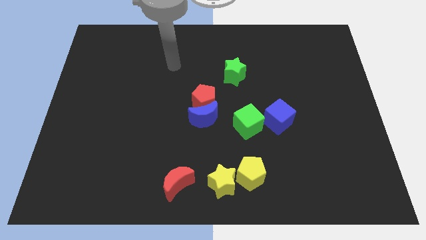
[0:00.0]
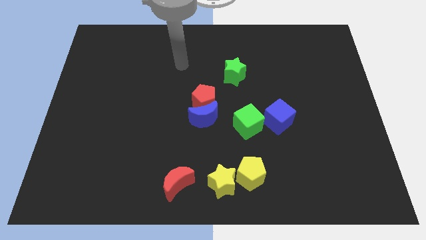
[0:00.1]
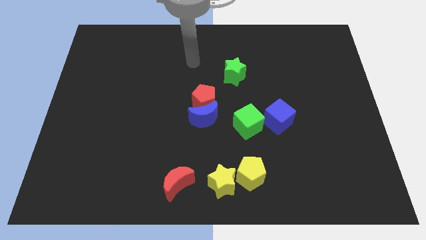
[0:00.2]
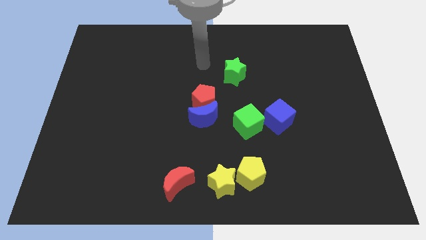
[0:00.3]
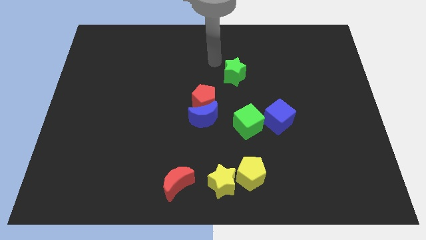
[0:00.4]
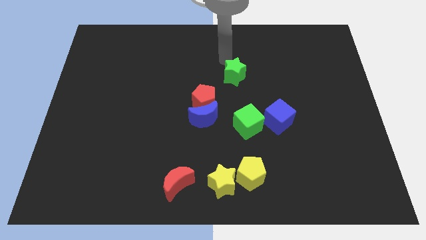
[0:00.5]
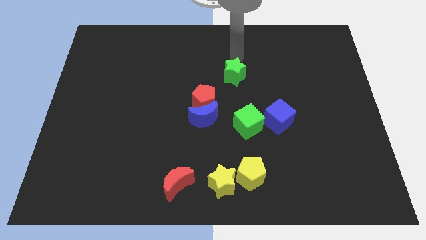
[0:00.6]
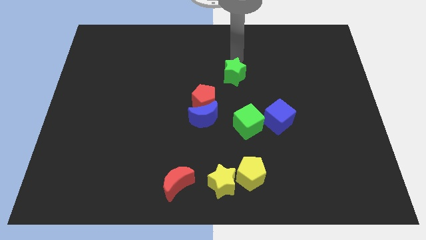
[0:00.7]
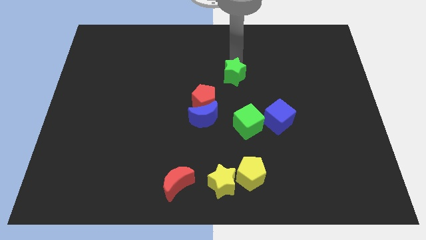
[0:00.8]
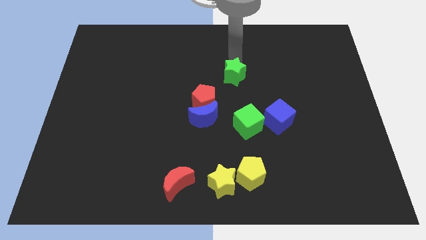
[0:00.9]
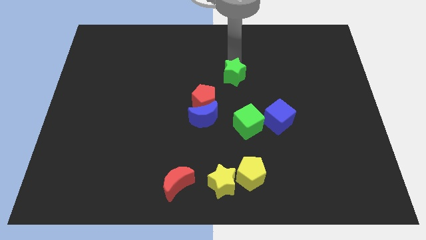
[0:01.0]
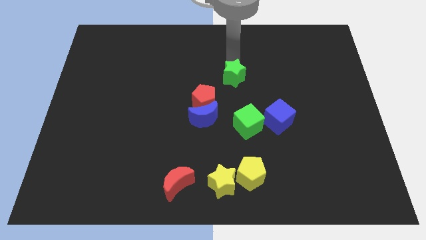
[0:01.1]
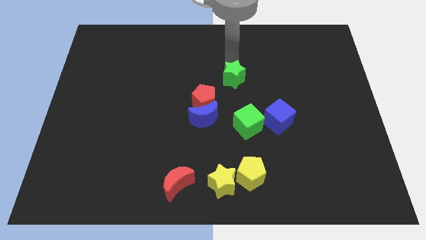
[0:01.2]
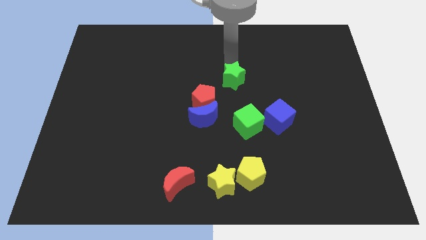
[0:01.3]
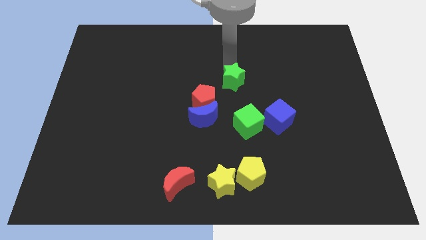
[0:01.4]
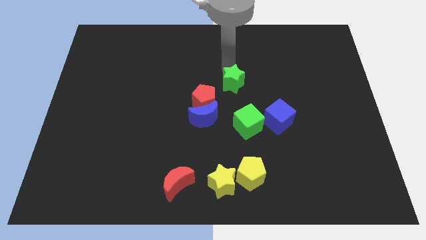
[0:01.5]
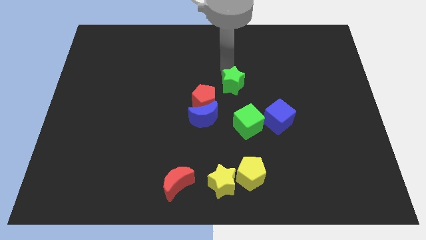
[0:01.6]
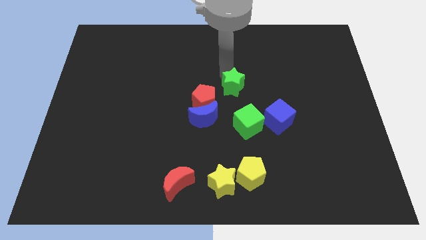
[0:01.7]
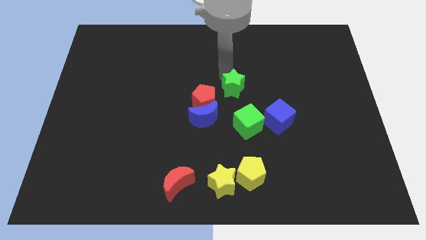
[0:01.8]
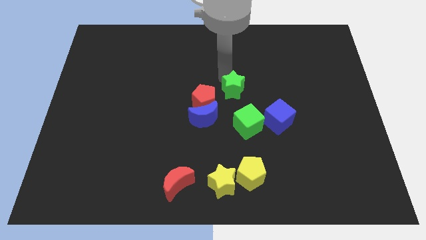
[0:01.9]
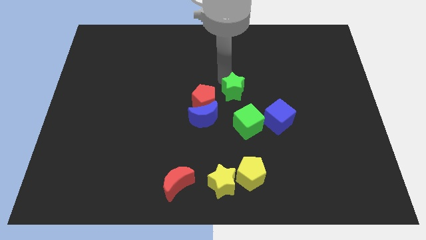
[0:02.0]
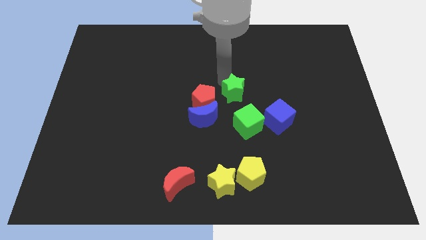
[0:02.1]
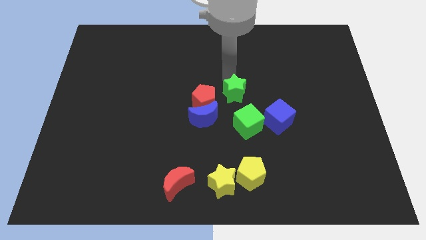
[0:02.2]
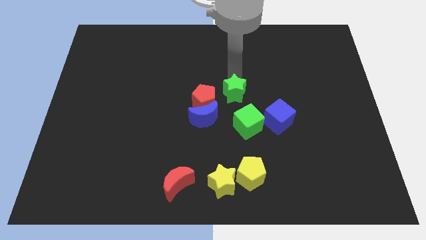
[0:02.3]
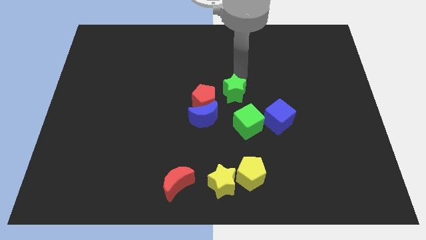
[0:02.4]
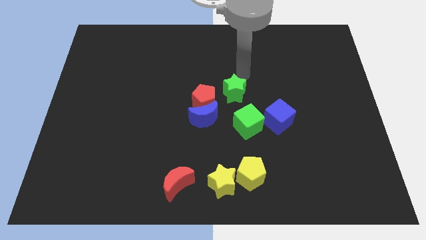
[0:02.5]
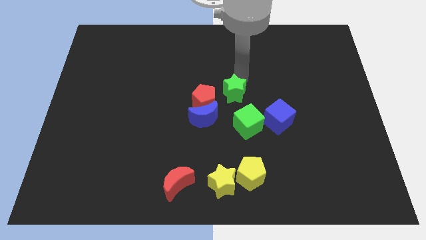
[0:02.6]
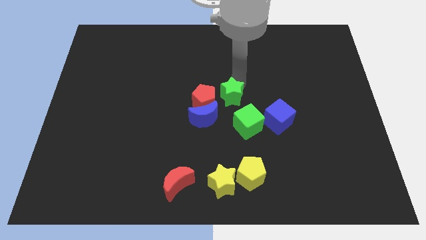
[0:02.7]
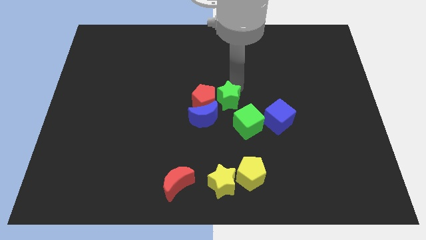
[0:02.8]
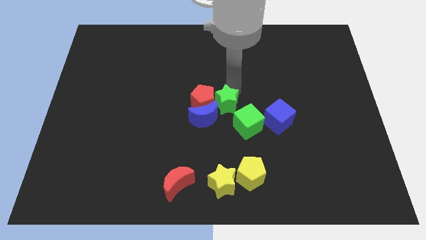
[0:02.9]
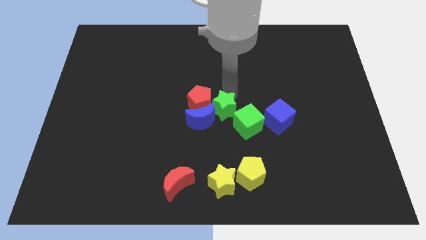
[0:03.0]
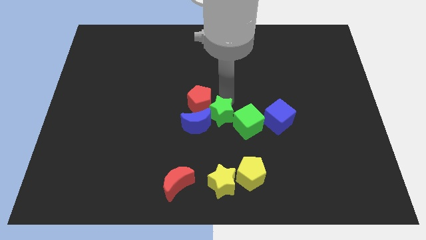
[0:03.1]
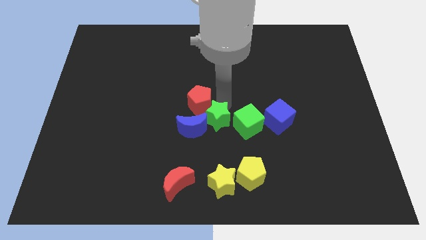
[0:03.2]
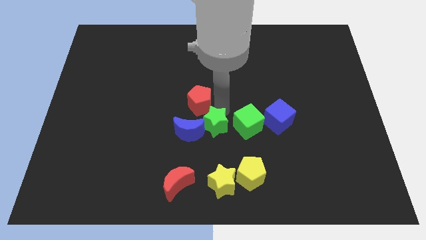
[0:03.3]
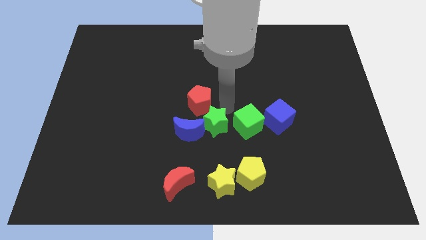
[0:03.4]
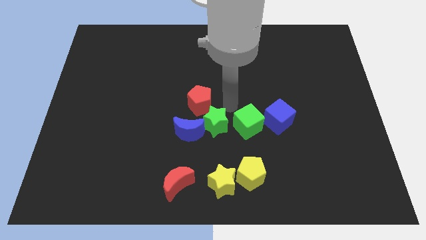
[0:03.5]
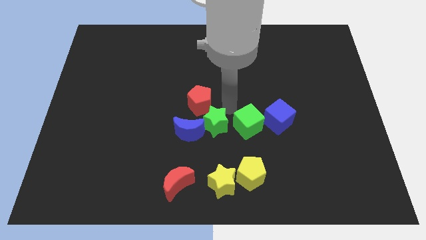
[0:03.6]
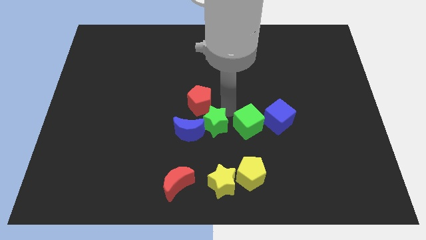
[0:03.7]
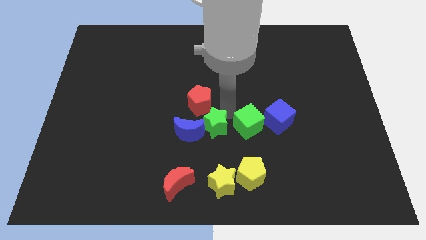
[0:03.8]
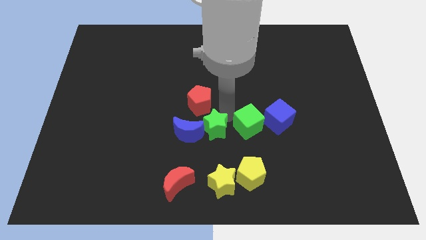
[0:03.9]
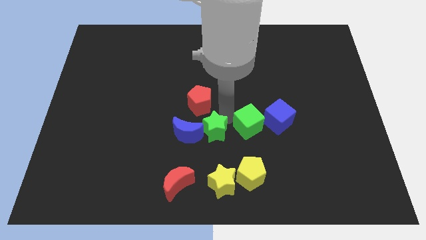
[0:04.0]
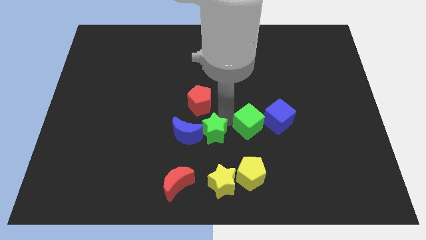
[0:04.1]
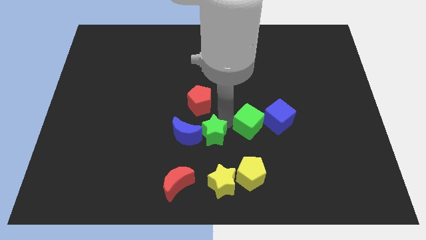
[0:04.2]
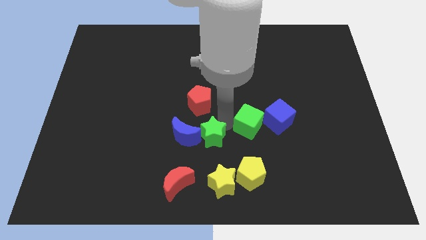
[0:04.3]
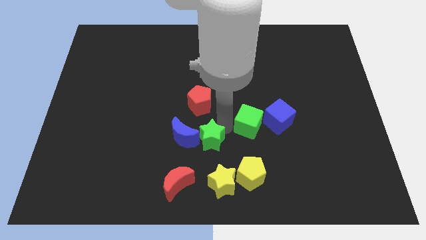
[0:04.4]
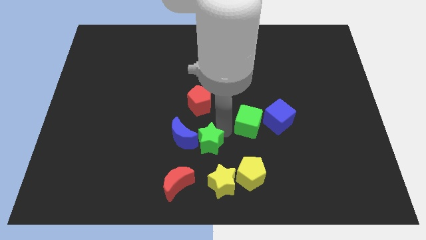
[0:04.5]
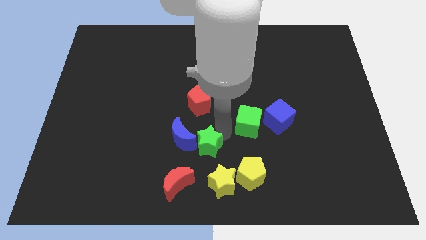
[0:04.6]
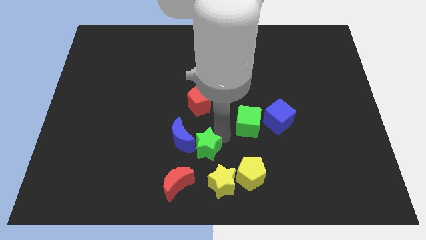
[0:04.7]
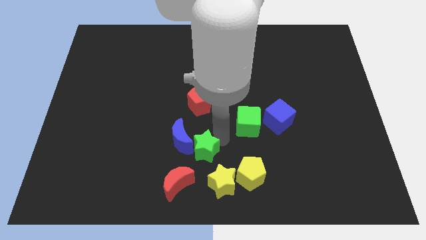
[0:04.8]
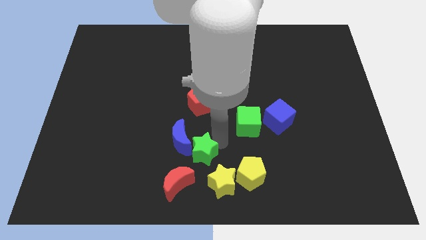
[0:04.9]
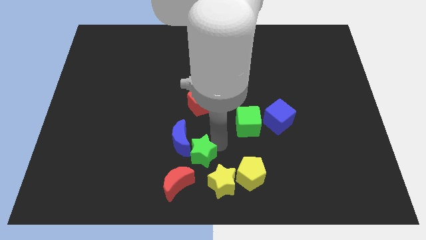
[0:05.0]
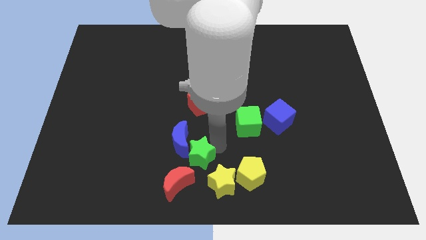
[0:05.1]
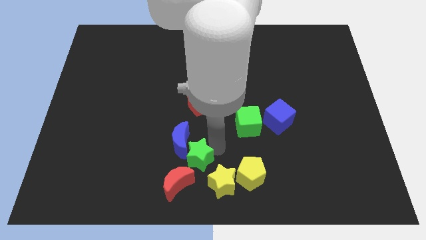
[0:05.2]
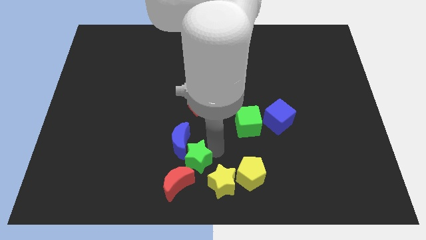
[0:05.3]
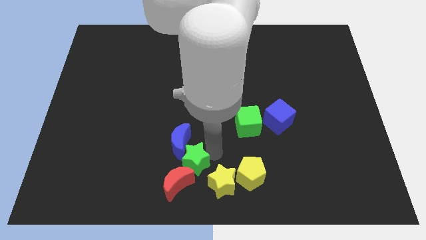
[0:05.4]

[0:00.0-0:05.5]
move the green star close to the red moon

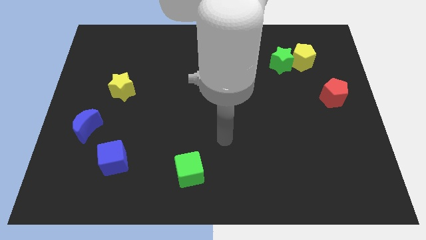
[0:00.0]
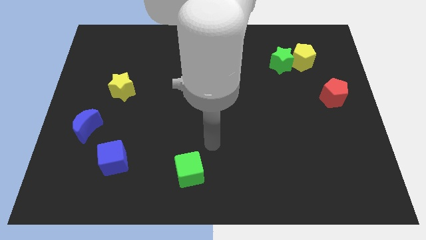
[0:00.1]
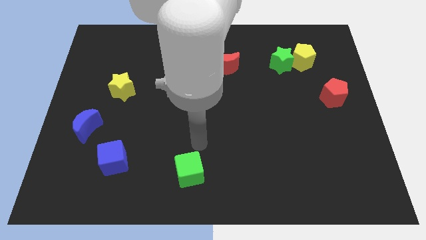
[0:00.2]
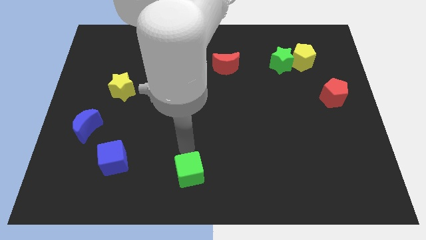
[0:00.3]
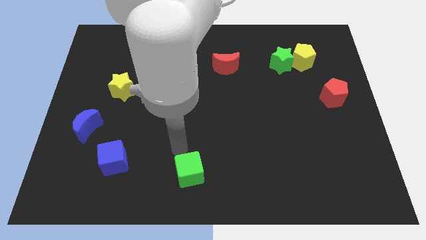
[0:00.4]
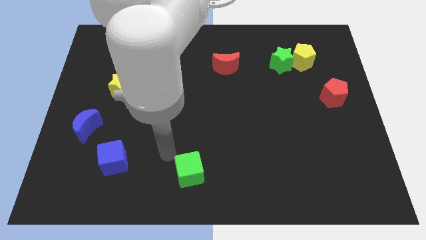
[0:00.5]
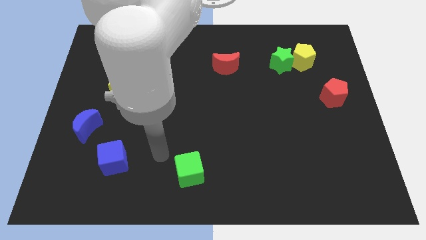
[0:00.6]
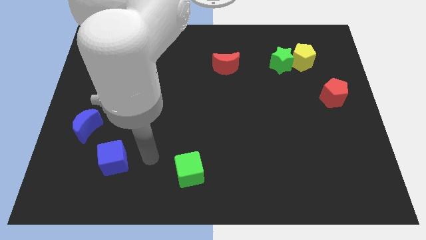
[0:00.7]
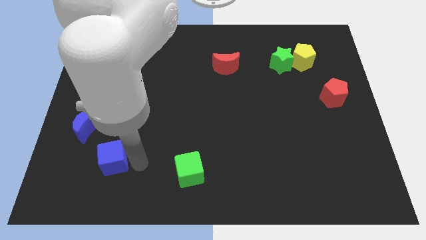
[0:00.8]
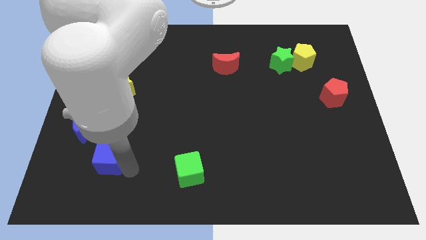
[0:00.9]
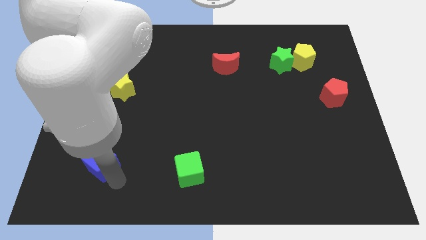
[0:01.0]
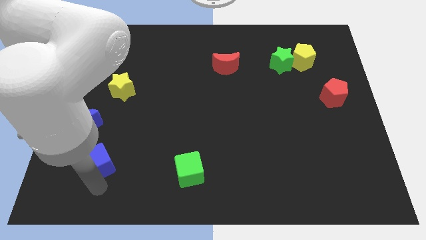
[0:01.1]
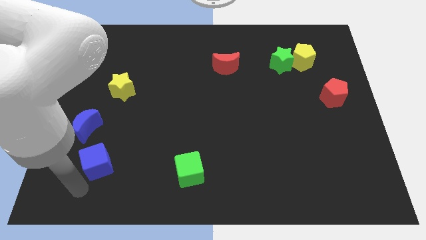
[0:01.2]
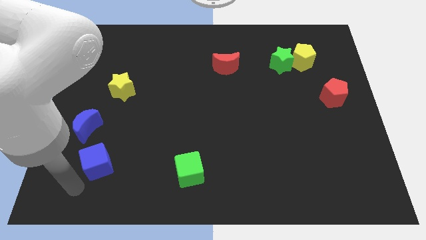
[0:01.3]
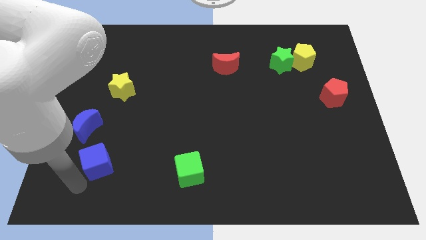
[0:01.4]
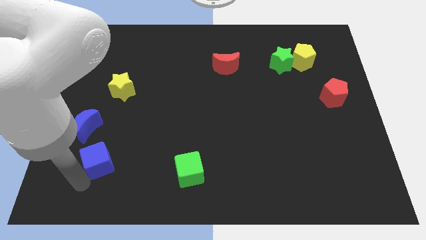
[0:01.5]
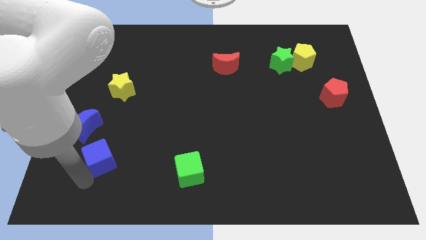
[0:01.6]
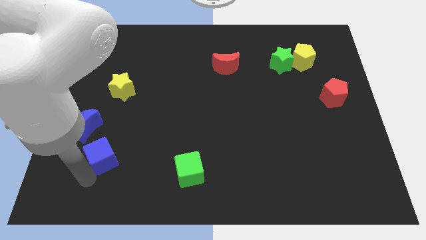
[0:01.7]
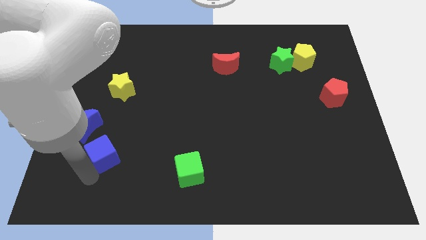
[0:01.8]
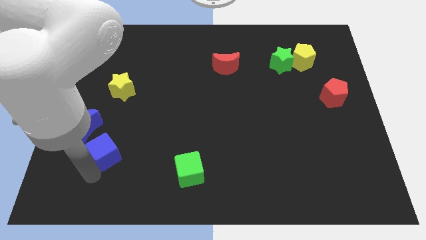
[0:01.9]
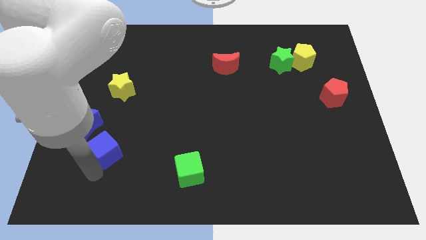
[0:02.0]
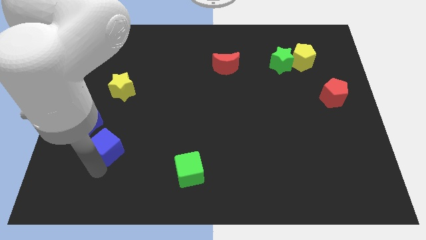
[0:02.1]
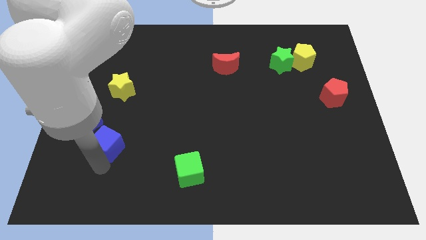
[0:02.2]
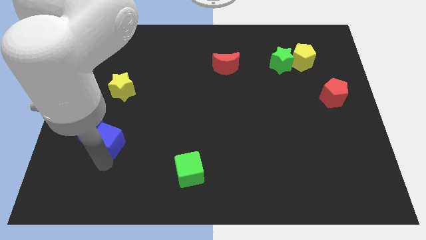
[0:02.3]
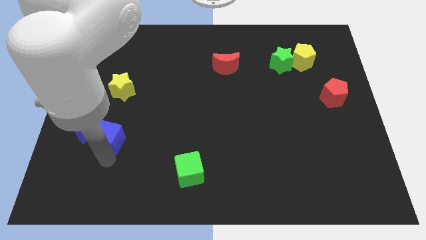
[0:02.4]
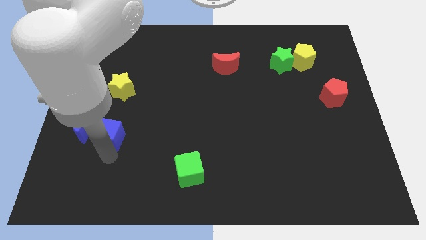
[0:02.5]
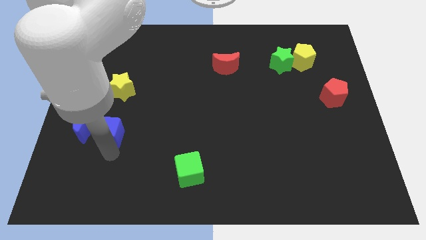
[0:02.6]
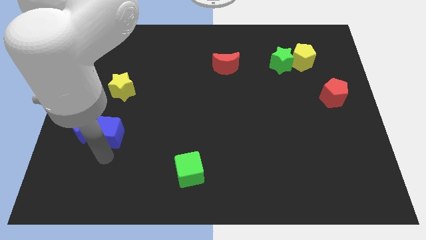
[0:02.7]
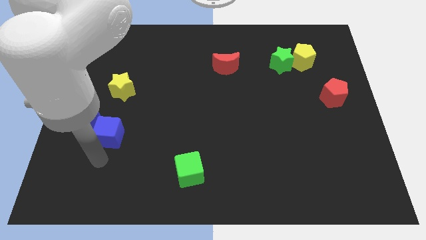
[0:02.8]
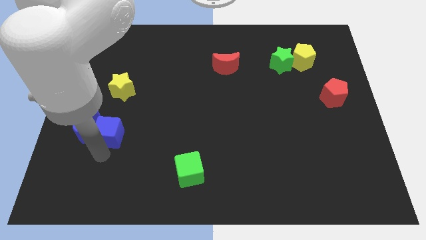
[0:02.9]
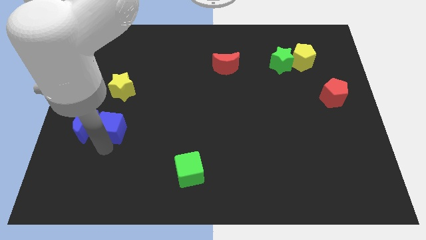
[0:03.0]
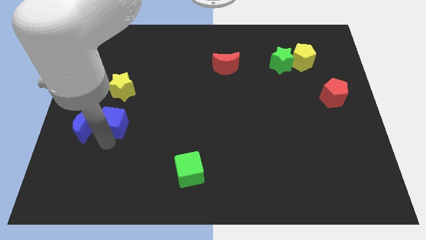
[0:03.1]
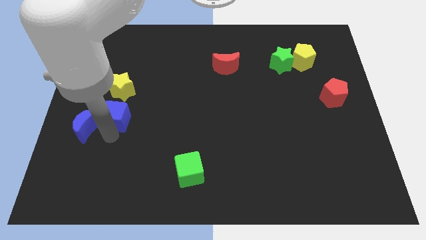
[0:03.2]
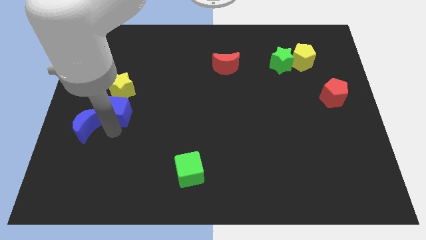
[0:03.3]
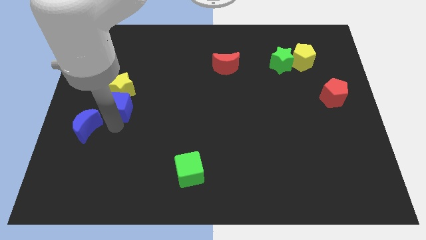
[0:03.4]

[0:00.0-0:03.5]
push the blue cube close to the yellow star
